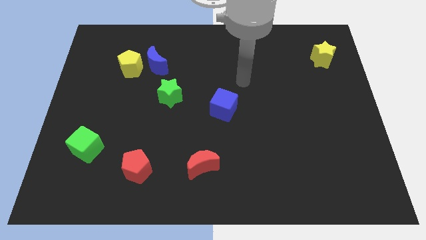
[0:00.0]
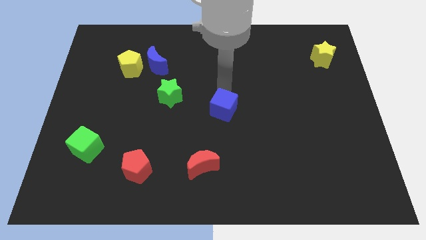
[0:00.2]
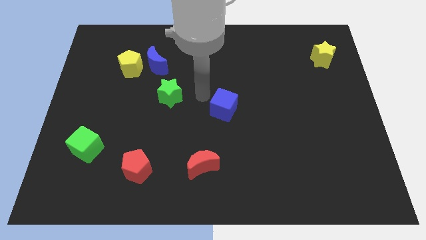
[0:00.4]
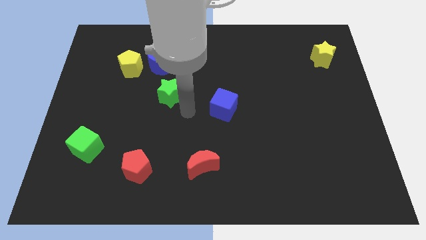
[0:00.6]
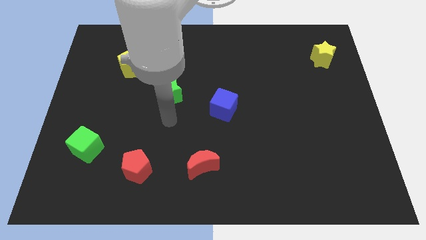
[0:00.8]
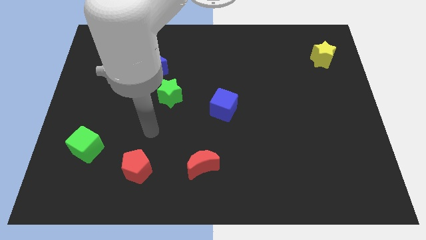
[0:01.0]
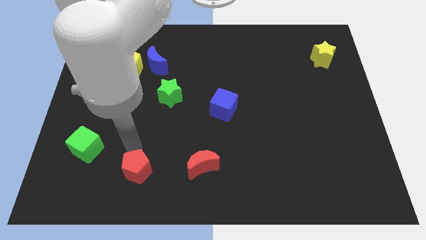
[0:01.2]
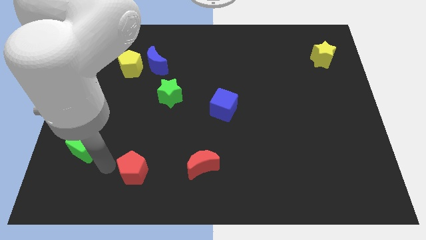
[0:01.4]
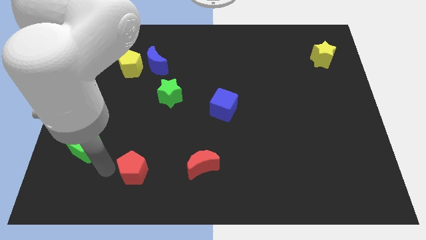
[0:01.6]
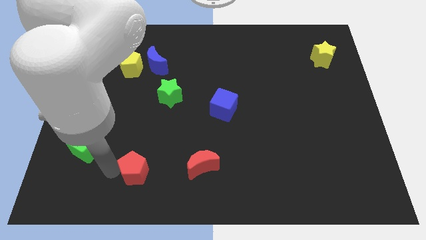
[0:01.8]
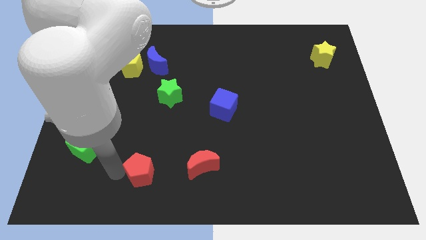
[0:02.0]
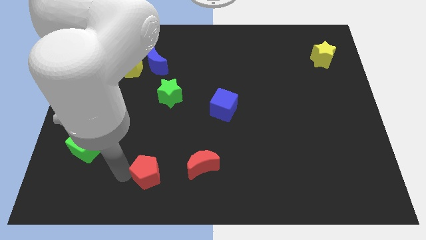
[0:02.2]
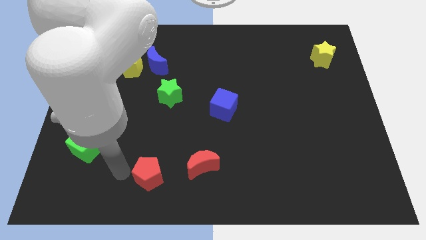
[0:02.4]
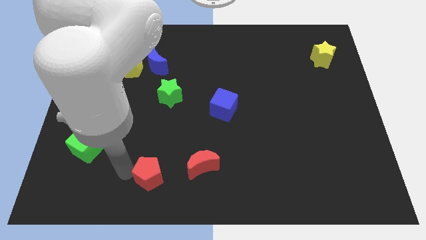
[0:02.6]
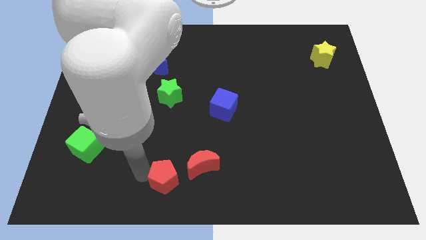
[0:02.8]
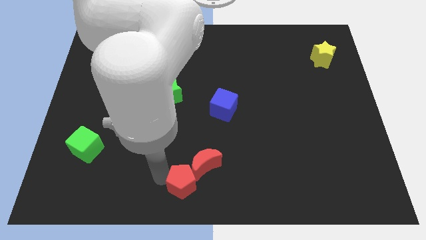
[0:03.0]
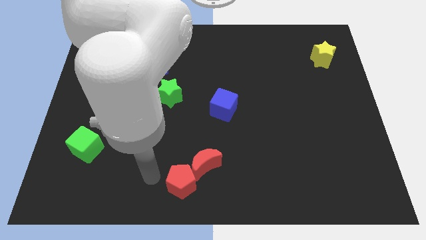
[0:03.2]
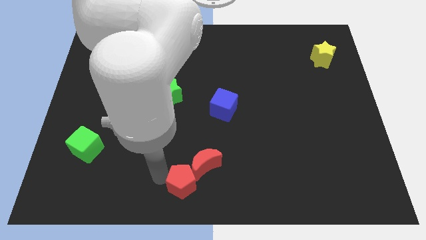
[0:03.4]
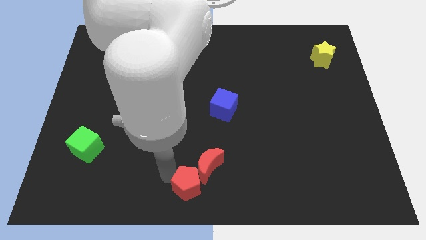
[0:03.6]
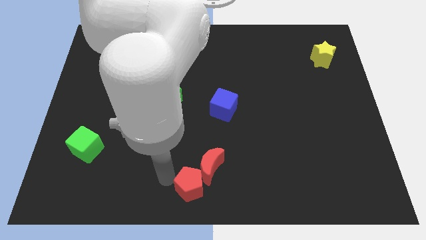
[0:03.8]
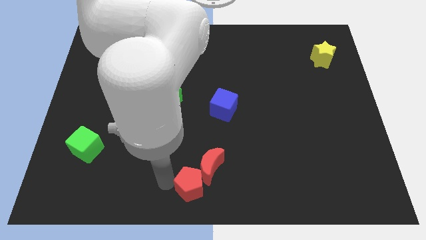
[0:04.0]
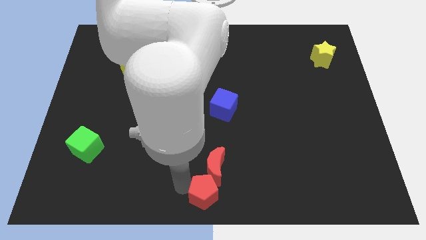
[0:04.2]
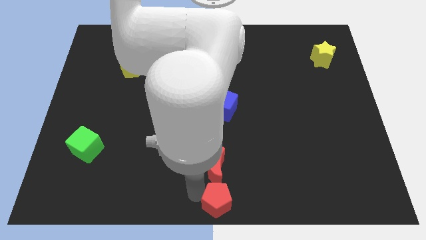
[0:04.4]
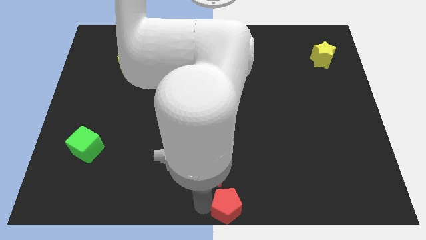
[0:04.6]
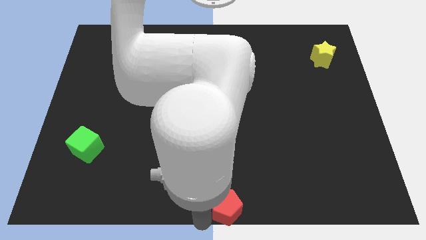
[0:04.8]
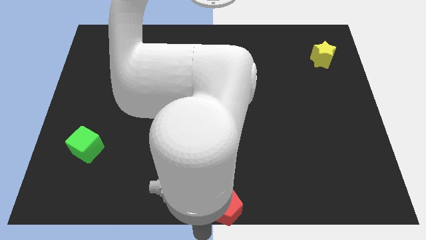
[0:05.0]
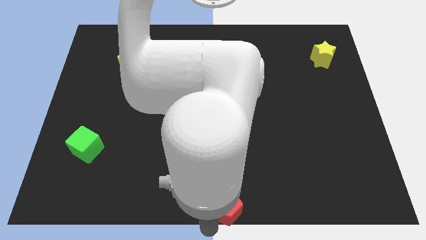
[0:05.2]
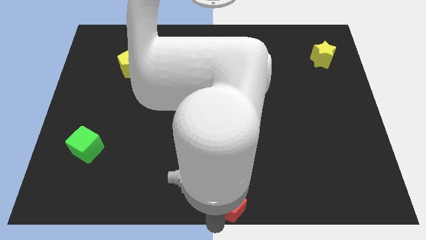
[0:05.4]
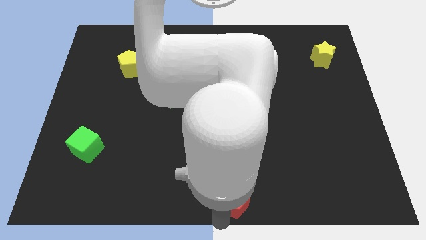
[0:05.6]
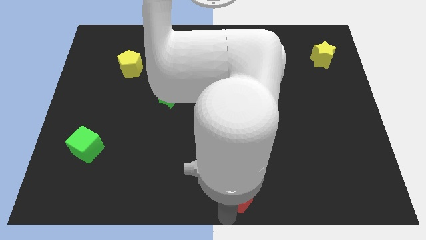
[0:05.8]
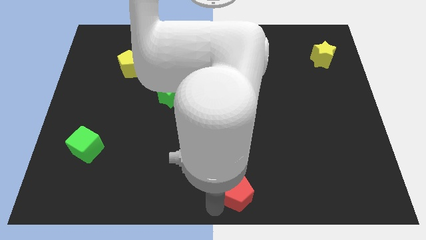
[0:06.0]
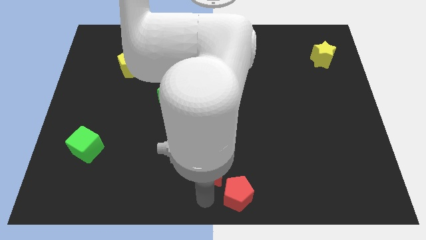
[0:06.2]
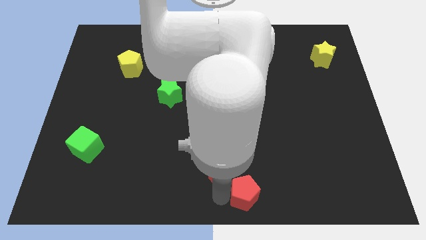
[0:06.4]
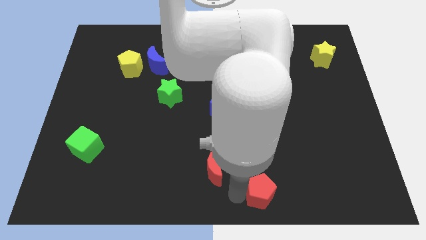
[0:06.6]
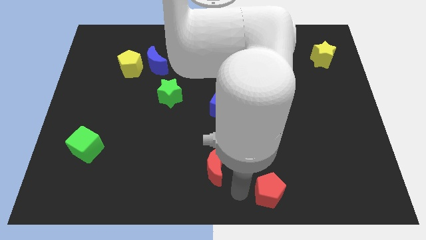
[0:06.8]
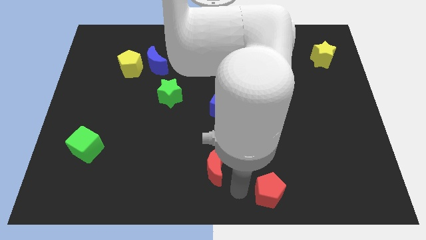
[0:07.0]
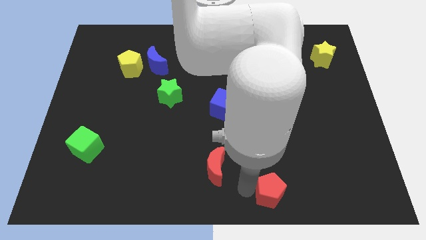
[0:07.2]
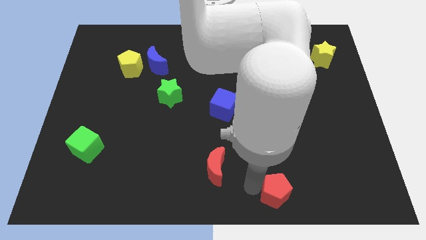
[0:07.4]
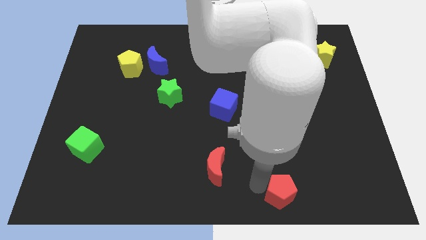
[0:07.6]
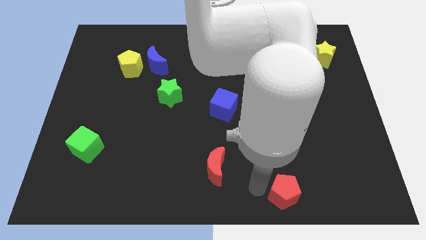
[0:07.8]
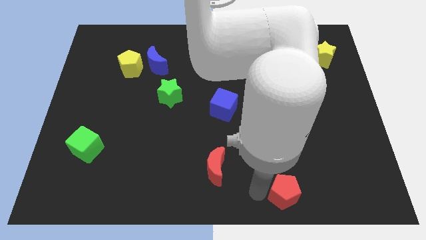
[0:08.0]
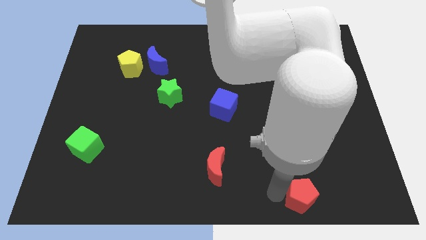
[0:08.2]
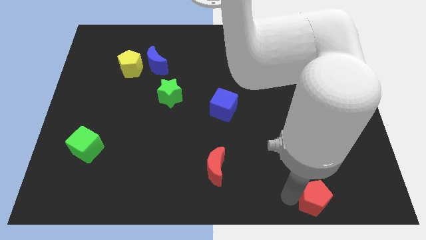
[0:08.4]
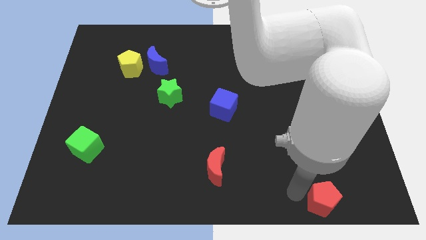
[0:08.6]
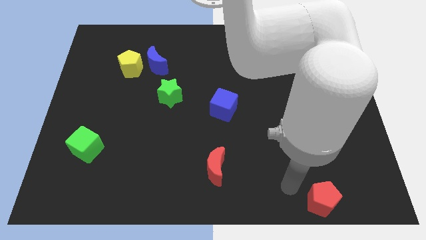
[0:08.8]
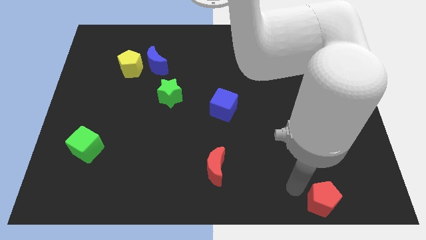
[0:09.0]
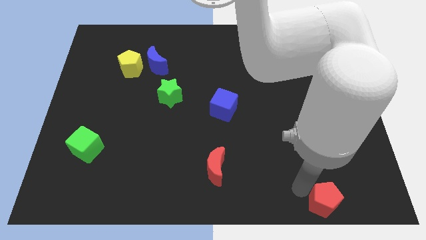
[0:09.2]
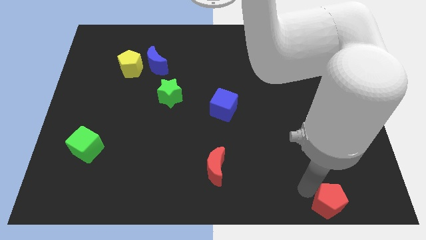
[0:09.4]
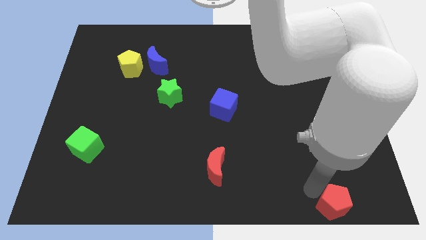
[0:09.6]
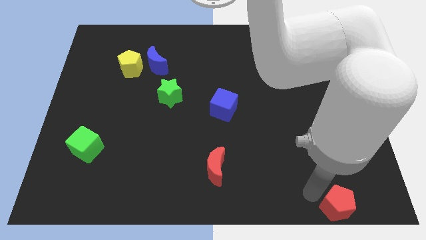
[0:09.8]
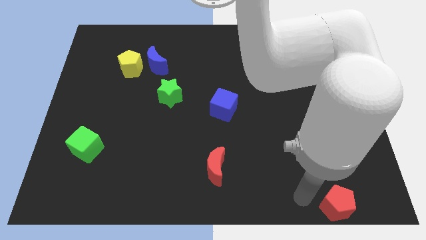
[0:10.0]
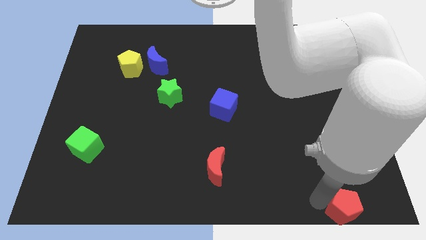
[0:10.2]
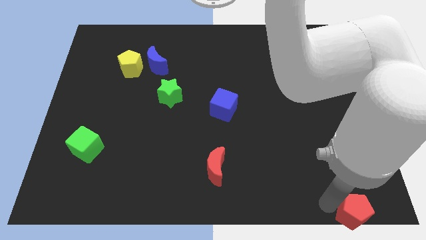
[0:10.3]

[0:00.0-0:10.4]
put the red pentagon to the bottom right

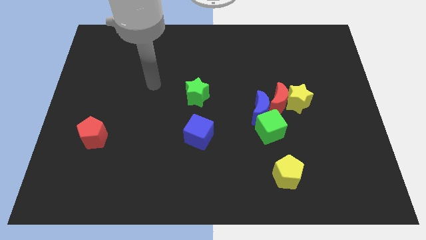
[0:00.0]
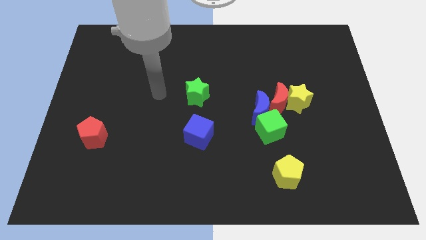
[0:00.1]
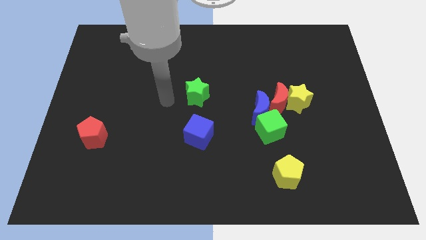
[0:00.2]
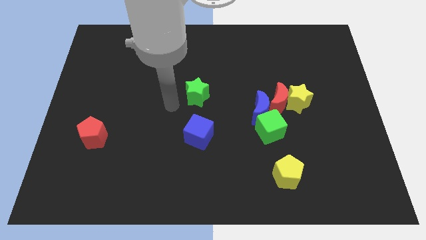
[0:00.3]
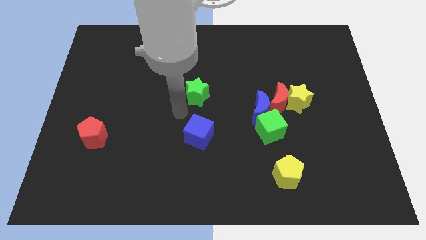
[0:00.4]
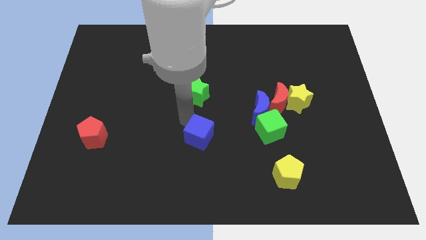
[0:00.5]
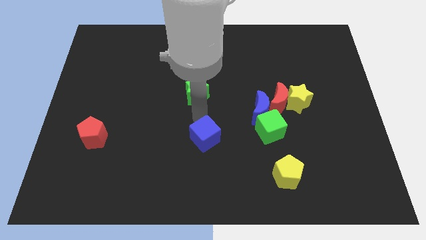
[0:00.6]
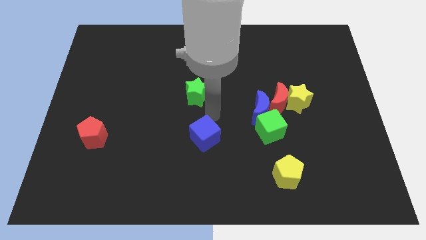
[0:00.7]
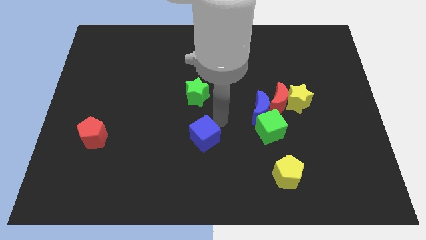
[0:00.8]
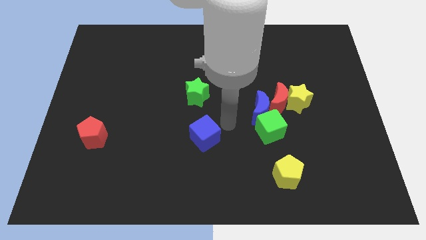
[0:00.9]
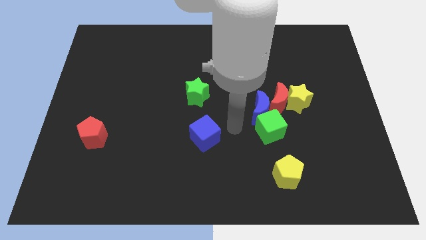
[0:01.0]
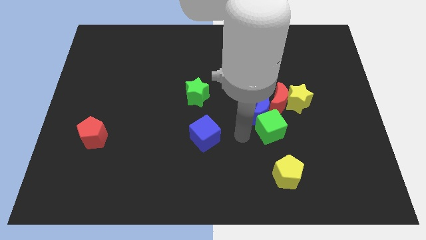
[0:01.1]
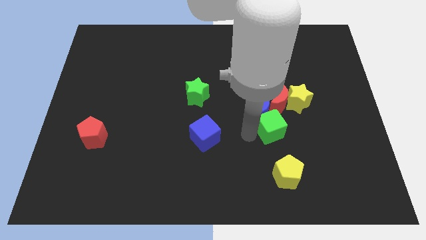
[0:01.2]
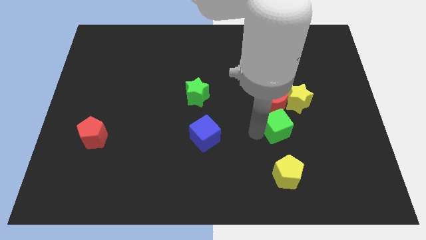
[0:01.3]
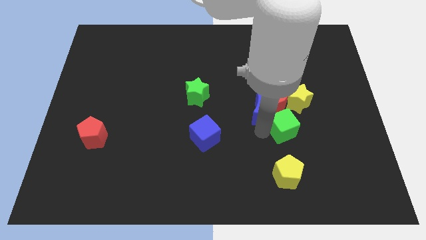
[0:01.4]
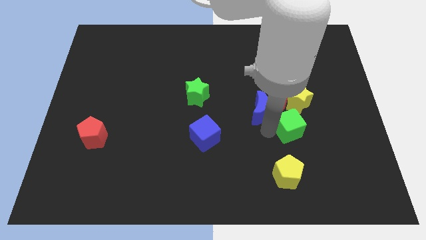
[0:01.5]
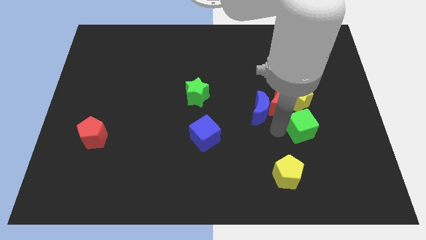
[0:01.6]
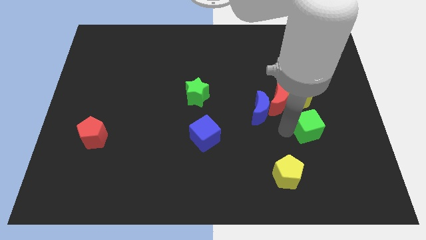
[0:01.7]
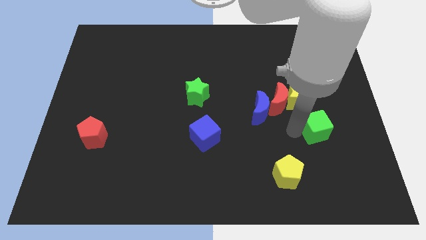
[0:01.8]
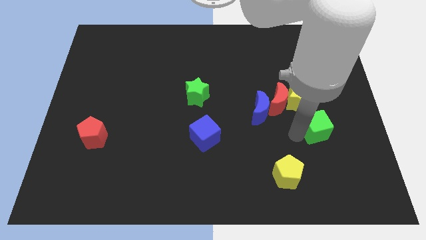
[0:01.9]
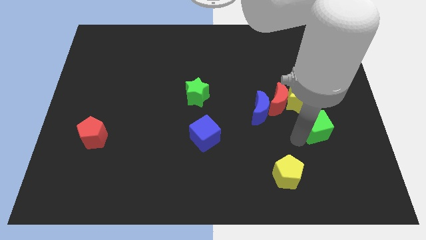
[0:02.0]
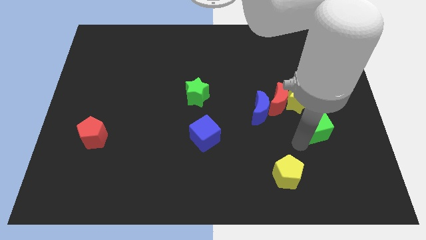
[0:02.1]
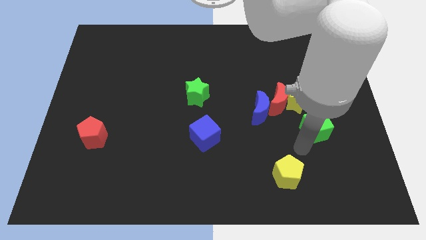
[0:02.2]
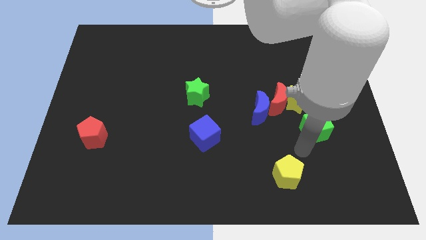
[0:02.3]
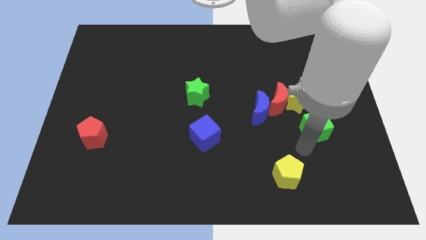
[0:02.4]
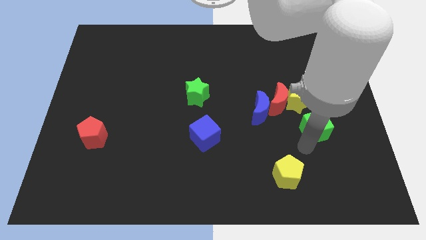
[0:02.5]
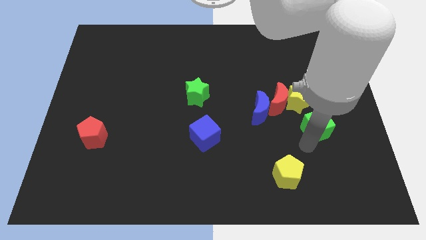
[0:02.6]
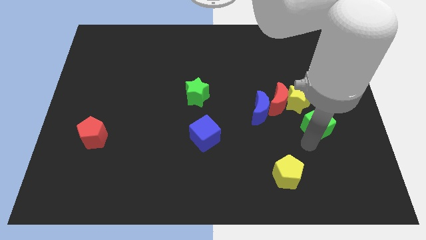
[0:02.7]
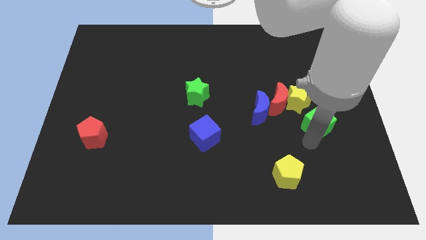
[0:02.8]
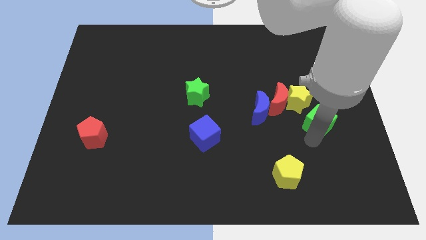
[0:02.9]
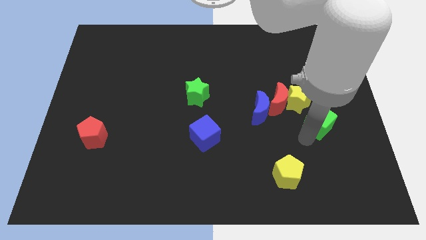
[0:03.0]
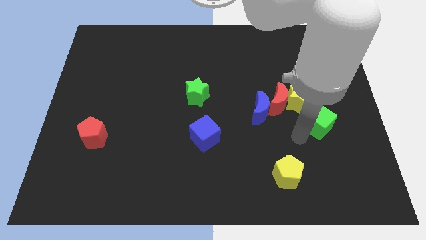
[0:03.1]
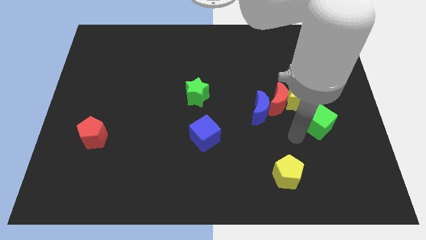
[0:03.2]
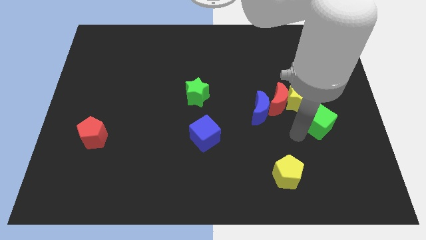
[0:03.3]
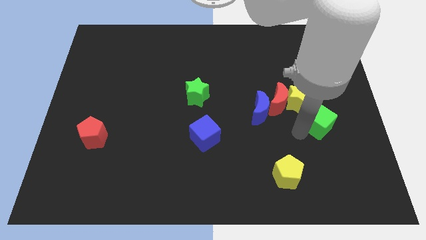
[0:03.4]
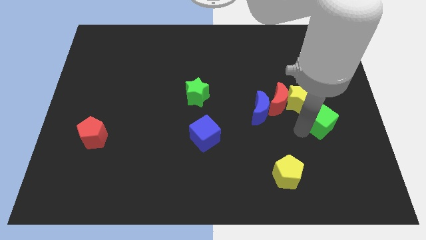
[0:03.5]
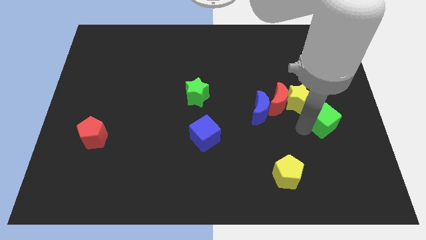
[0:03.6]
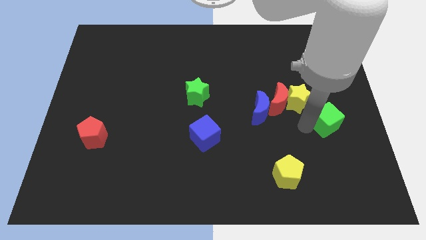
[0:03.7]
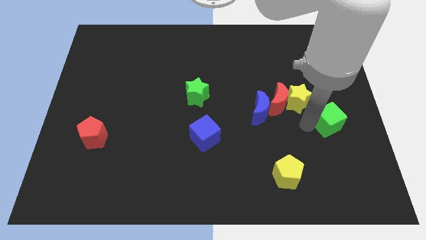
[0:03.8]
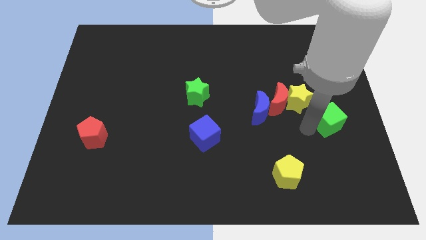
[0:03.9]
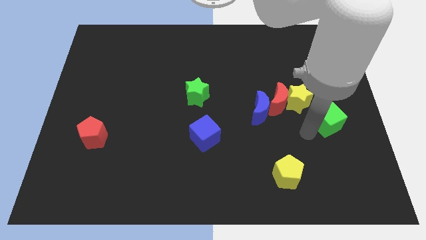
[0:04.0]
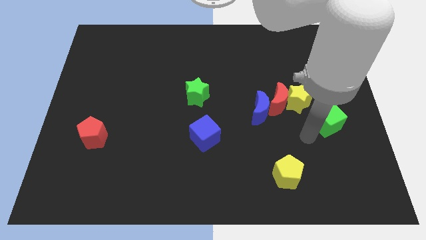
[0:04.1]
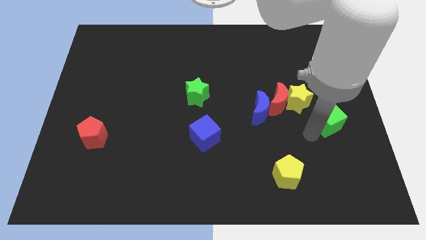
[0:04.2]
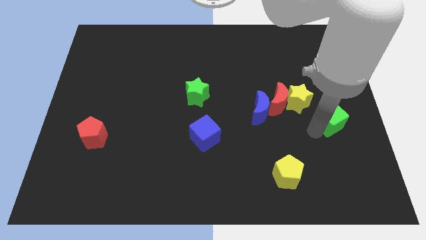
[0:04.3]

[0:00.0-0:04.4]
put the green cube to the right side
